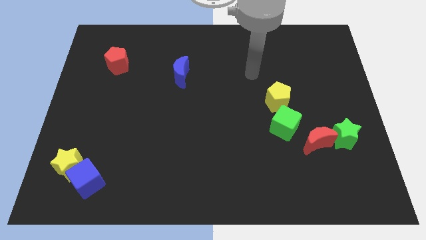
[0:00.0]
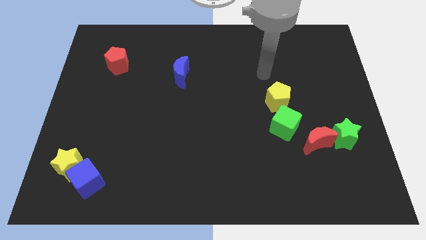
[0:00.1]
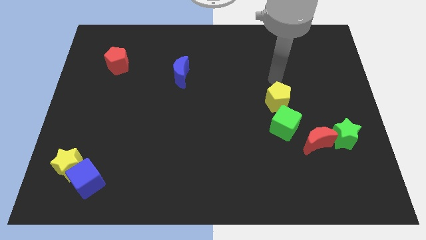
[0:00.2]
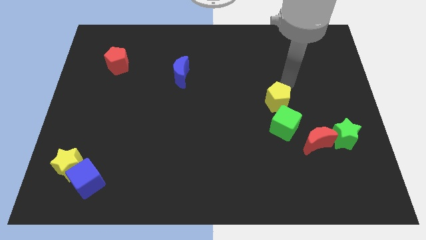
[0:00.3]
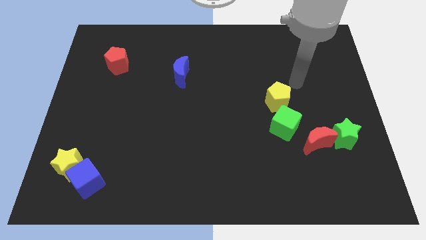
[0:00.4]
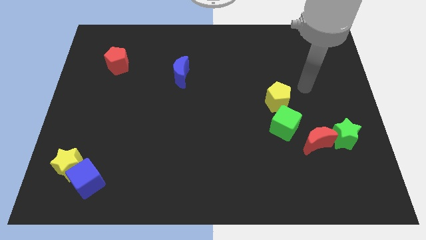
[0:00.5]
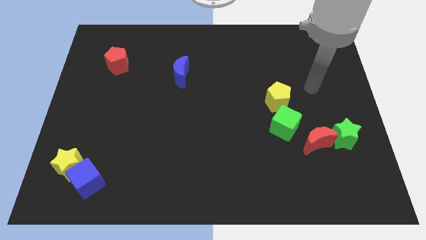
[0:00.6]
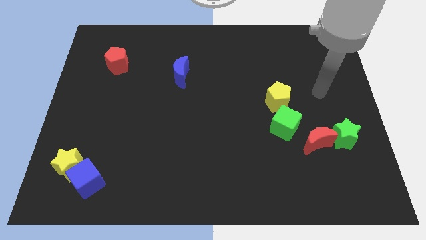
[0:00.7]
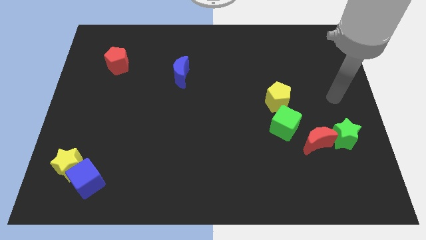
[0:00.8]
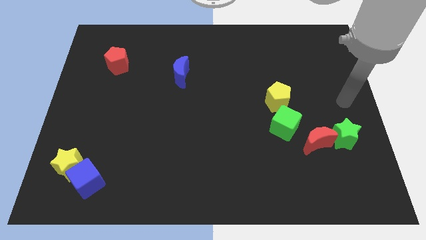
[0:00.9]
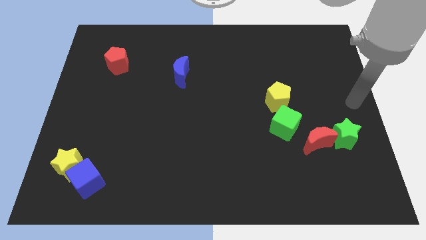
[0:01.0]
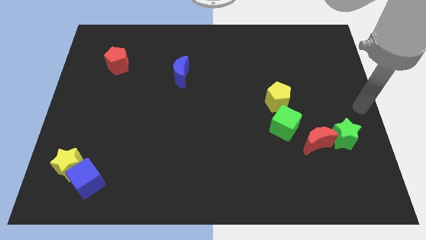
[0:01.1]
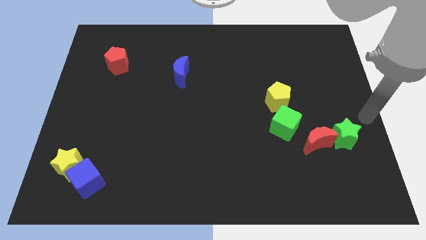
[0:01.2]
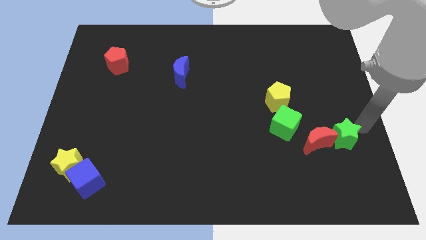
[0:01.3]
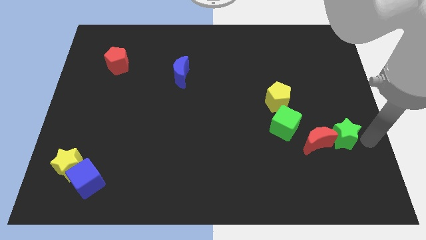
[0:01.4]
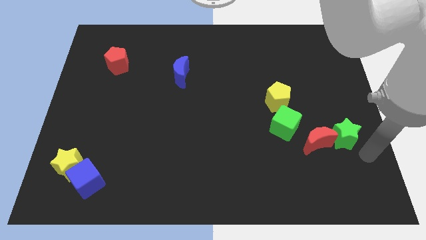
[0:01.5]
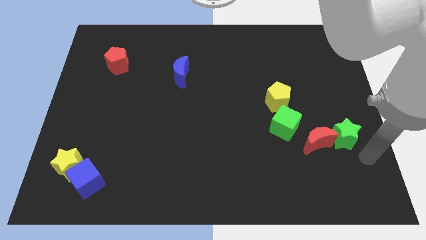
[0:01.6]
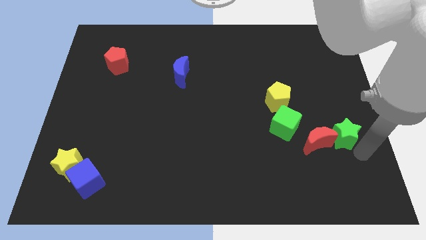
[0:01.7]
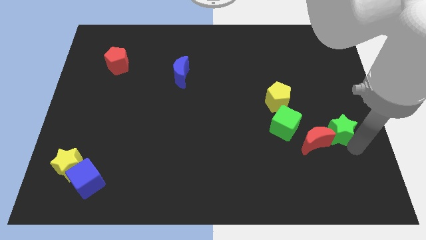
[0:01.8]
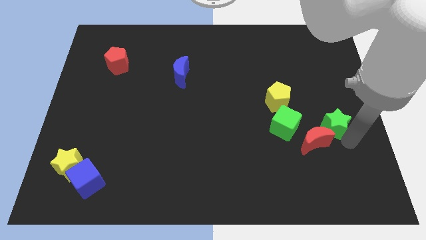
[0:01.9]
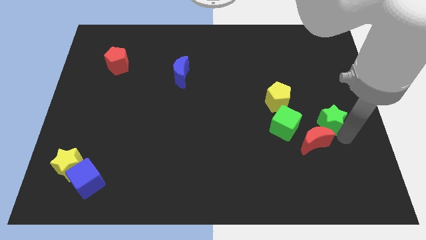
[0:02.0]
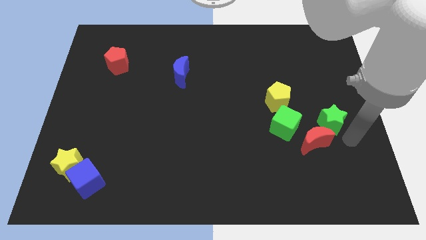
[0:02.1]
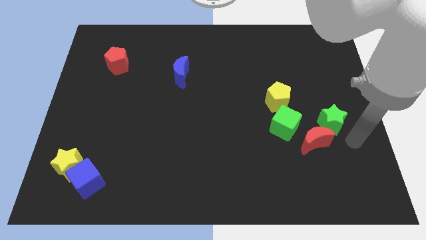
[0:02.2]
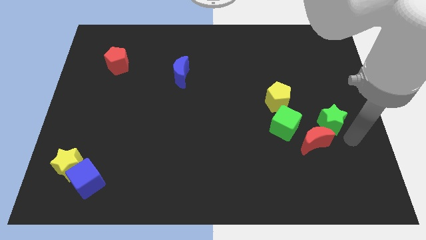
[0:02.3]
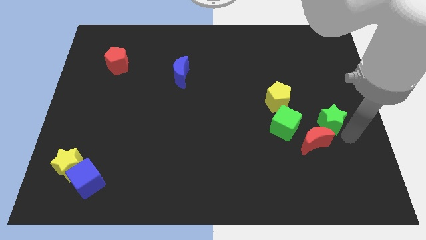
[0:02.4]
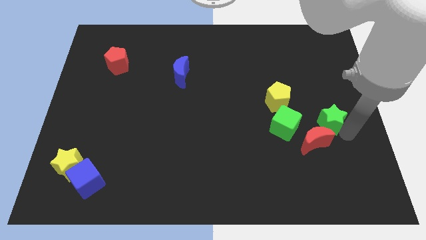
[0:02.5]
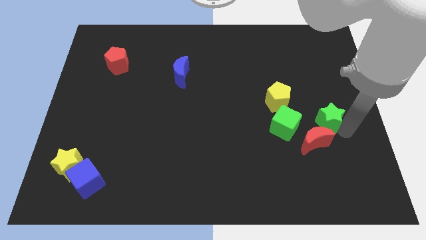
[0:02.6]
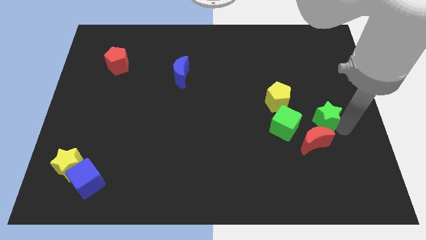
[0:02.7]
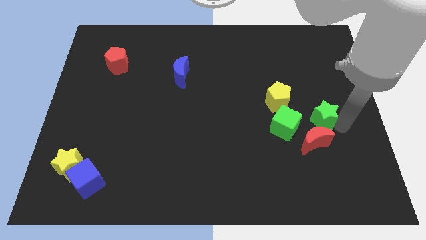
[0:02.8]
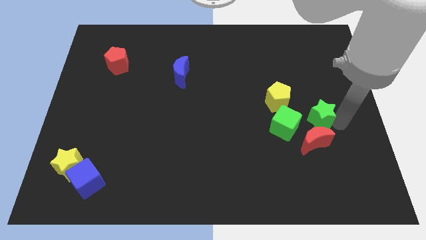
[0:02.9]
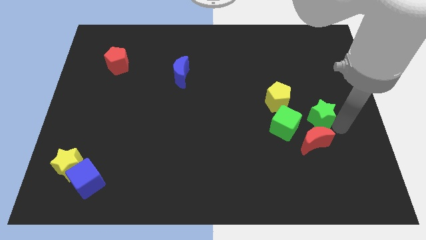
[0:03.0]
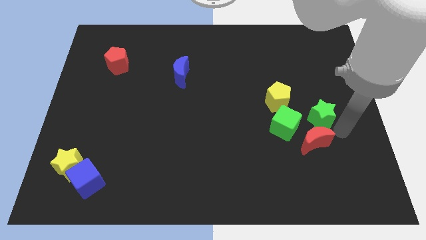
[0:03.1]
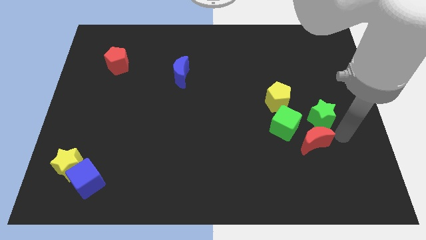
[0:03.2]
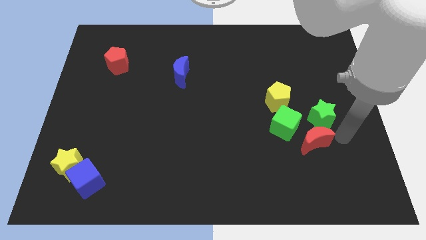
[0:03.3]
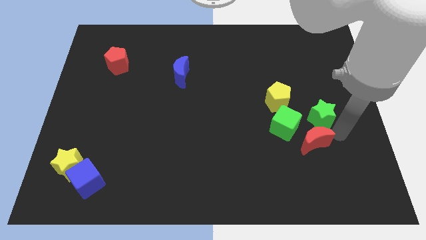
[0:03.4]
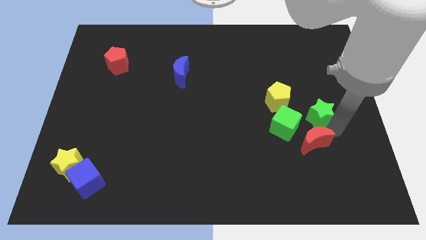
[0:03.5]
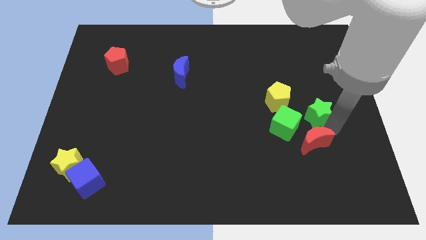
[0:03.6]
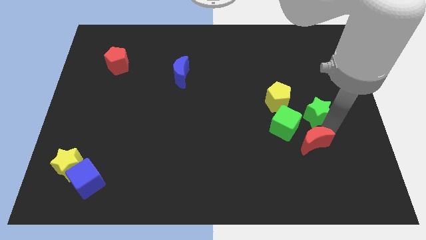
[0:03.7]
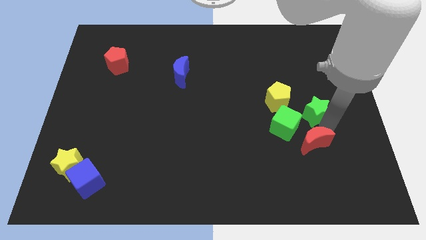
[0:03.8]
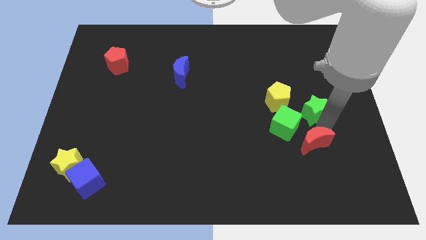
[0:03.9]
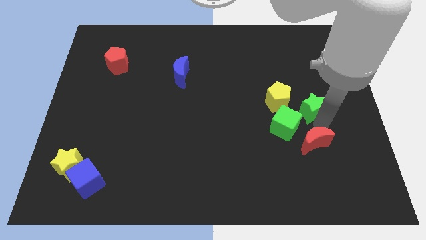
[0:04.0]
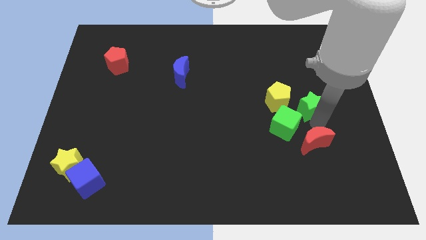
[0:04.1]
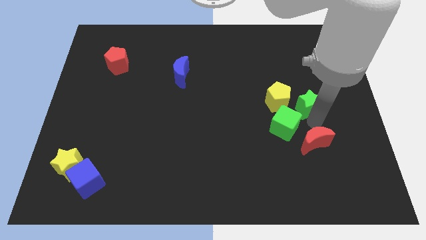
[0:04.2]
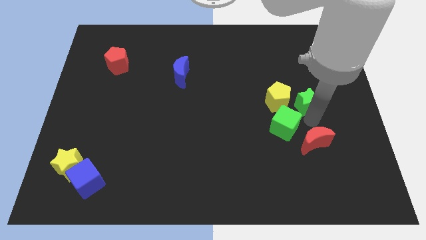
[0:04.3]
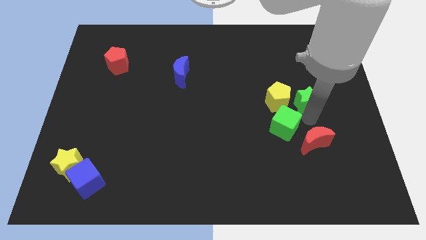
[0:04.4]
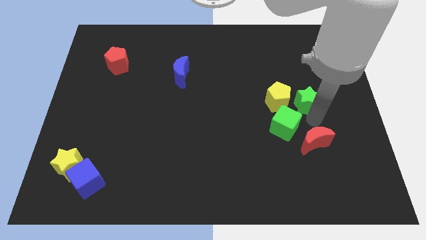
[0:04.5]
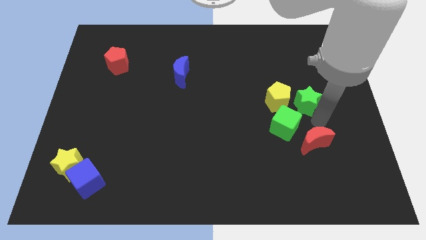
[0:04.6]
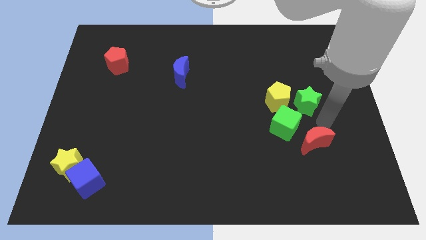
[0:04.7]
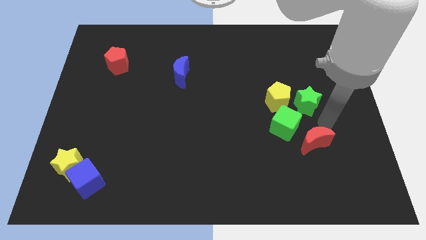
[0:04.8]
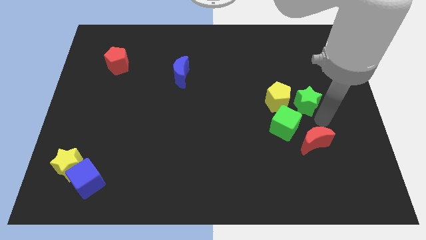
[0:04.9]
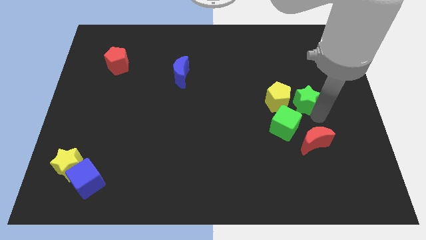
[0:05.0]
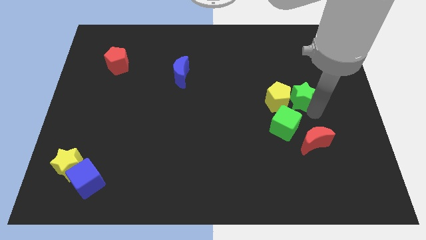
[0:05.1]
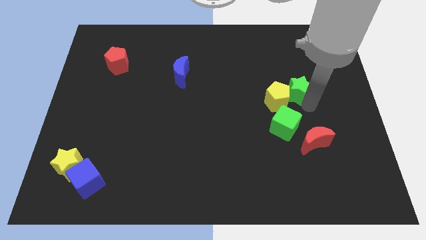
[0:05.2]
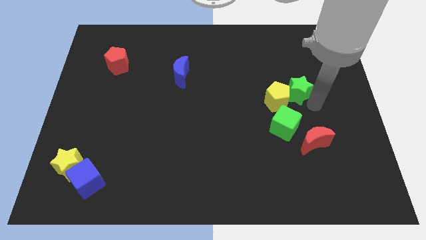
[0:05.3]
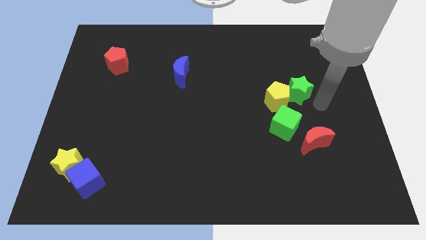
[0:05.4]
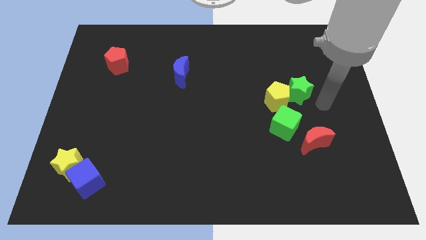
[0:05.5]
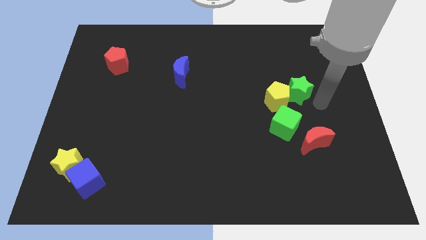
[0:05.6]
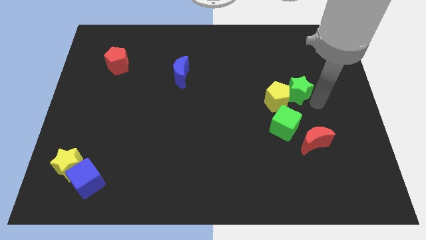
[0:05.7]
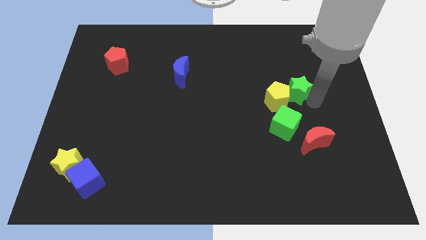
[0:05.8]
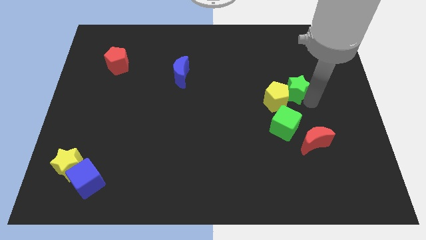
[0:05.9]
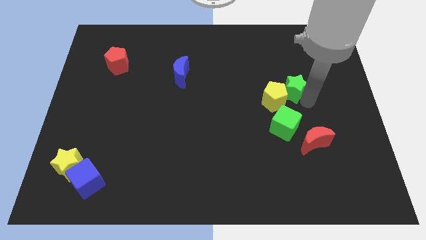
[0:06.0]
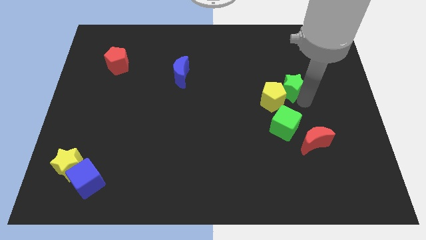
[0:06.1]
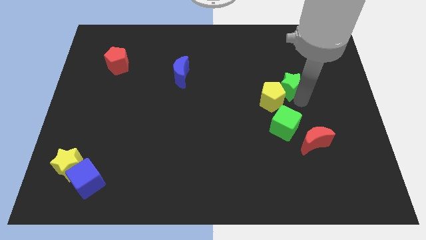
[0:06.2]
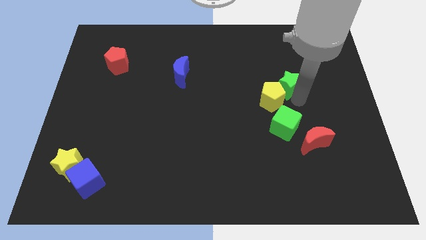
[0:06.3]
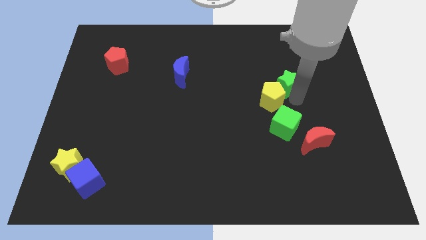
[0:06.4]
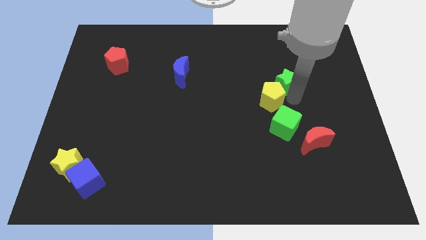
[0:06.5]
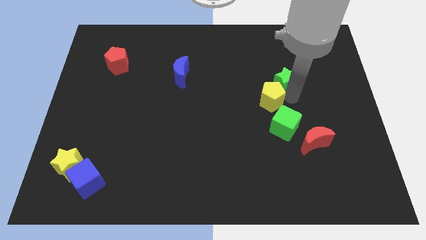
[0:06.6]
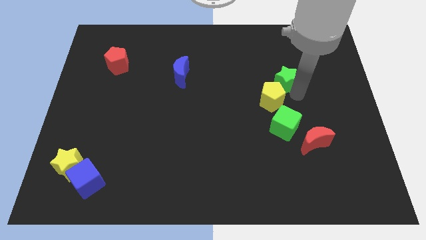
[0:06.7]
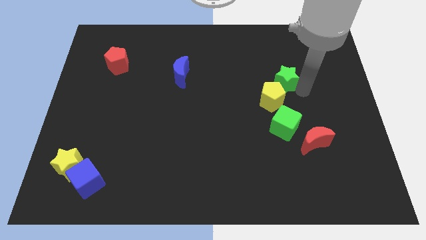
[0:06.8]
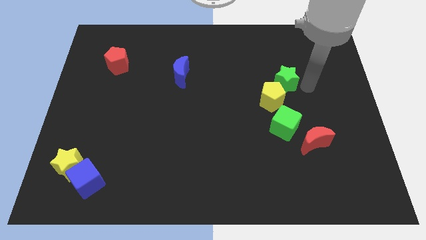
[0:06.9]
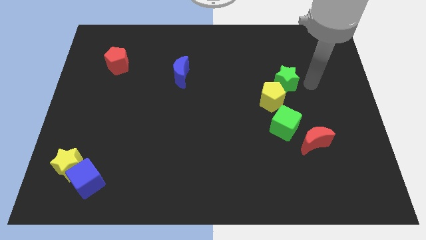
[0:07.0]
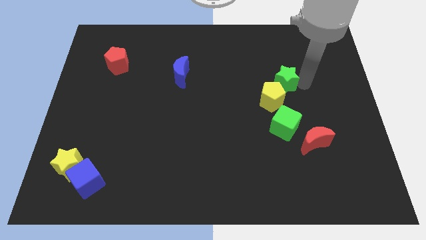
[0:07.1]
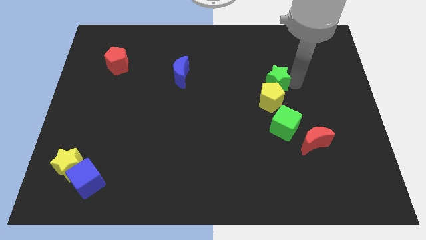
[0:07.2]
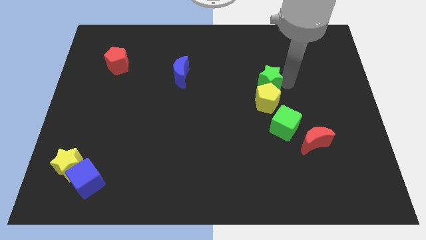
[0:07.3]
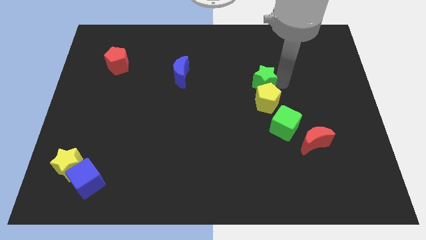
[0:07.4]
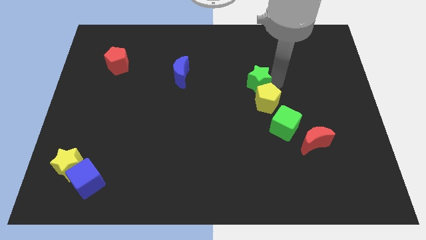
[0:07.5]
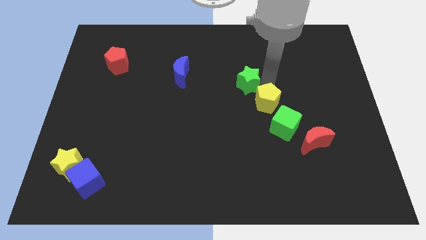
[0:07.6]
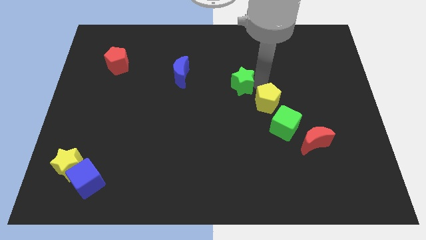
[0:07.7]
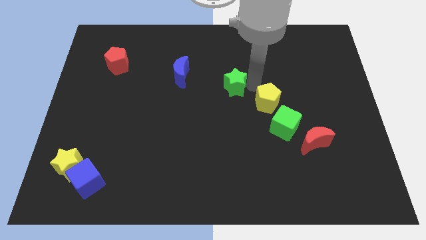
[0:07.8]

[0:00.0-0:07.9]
put the green star to the right of the blue moon
